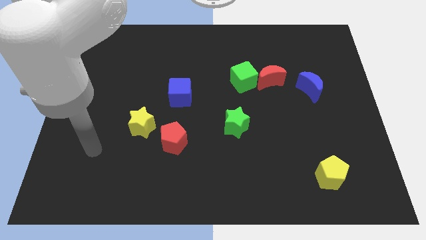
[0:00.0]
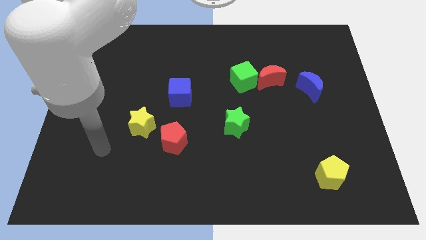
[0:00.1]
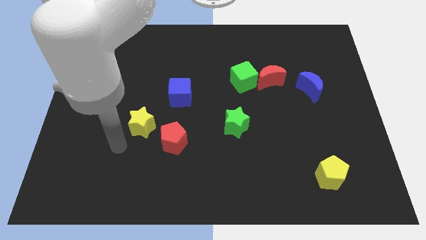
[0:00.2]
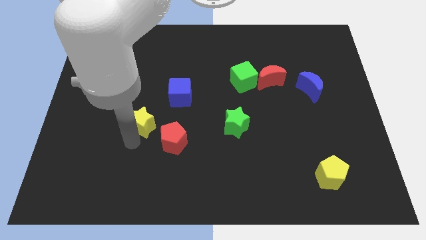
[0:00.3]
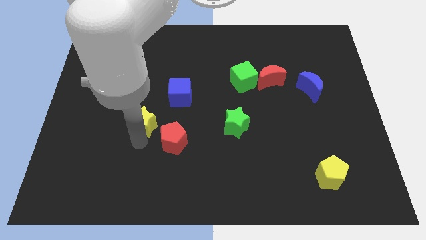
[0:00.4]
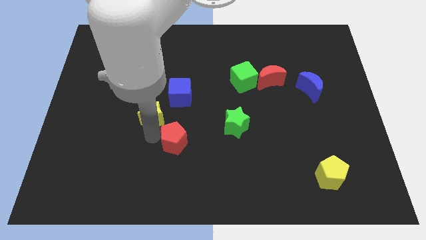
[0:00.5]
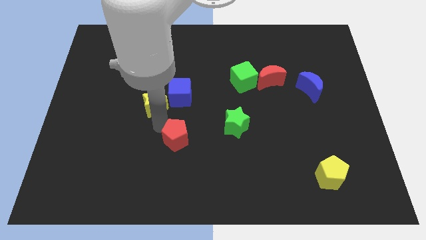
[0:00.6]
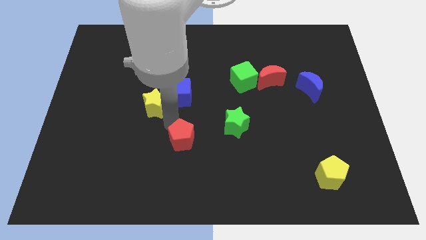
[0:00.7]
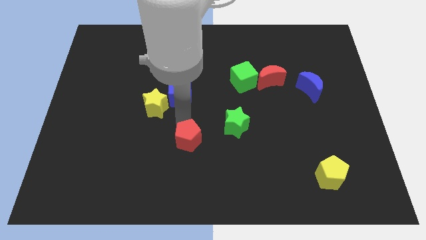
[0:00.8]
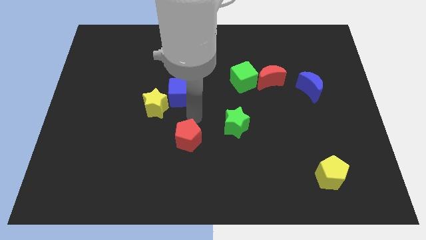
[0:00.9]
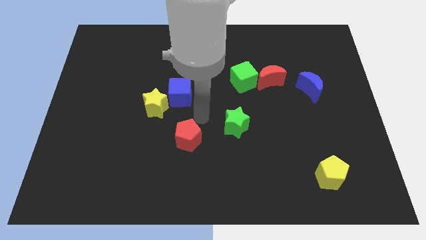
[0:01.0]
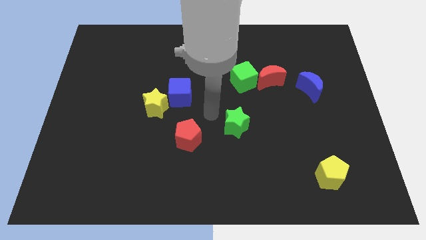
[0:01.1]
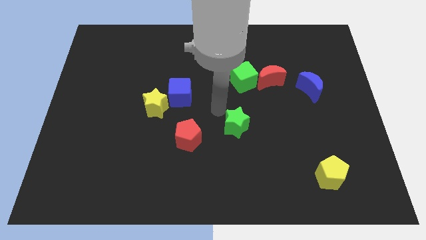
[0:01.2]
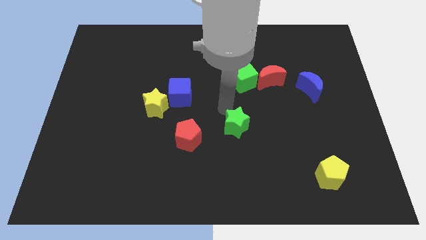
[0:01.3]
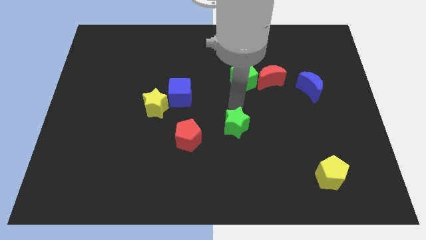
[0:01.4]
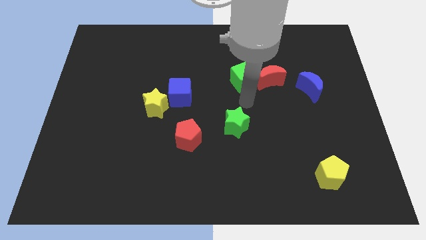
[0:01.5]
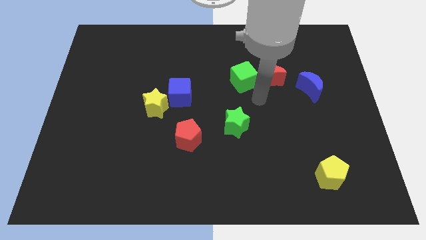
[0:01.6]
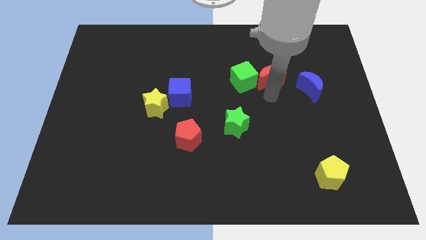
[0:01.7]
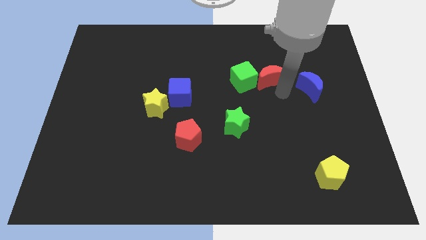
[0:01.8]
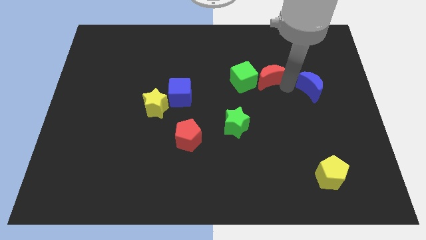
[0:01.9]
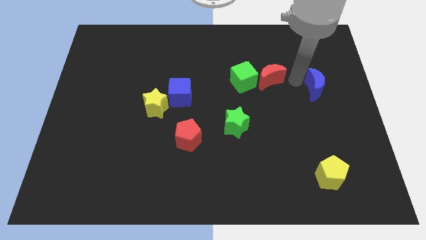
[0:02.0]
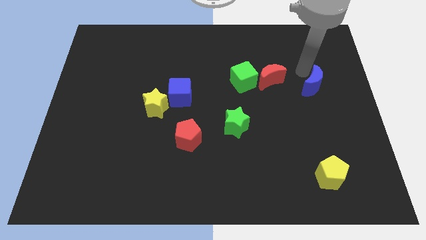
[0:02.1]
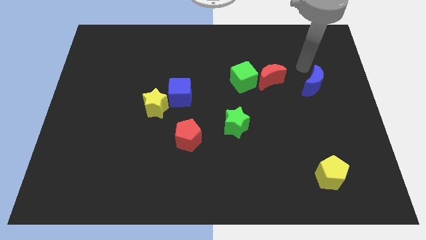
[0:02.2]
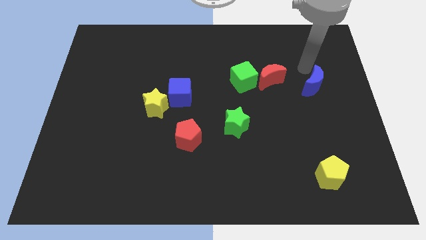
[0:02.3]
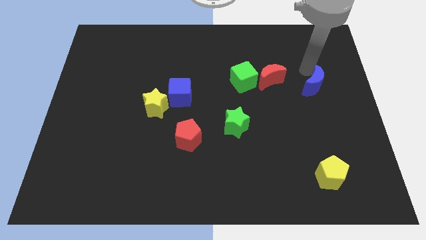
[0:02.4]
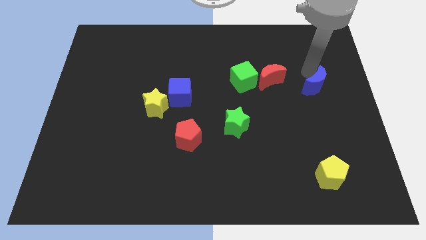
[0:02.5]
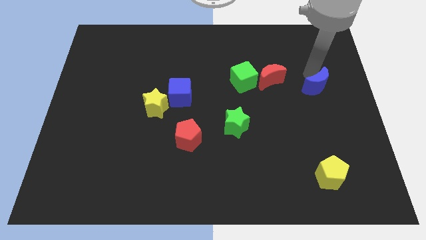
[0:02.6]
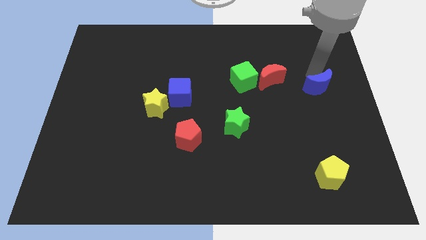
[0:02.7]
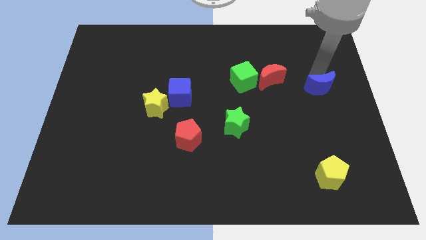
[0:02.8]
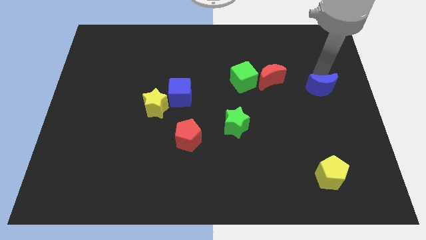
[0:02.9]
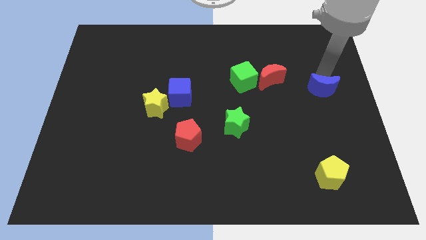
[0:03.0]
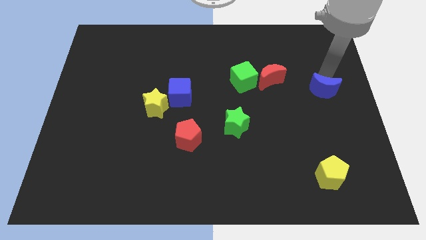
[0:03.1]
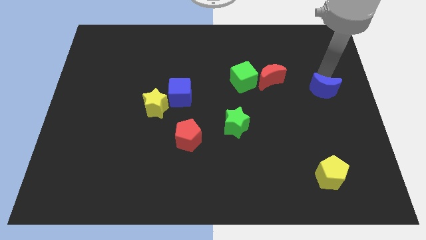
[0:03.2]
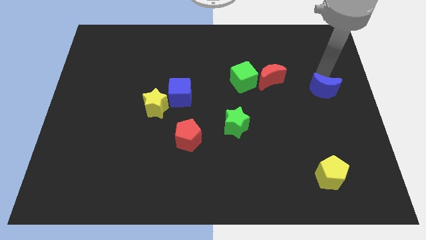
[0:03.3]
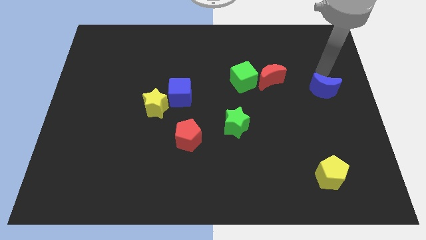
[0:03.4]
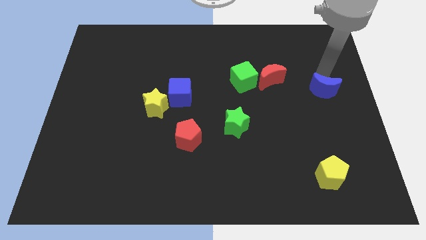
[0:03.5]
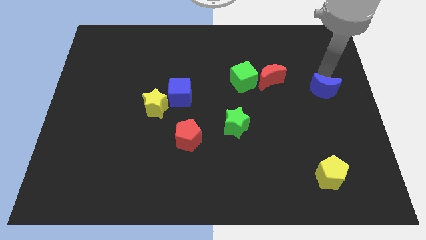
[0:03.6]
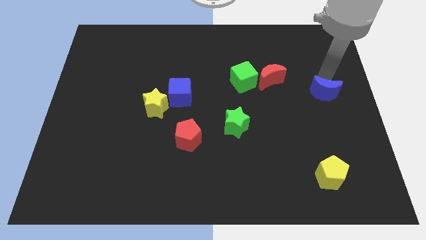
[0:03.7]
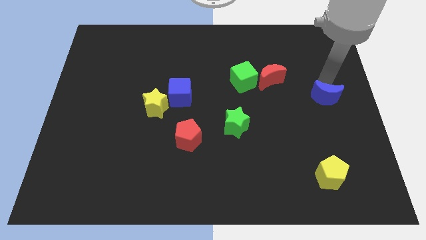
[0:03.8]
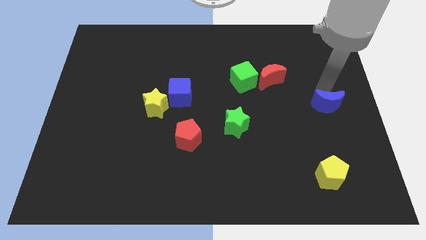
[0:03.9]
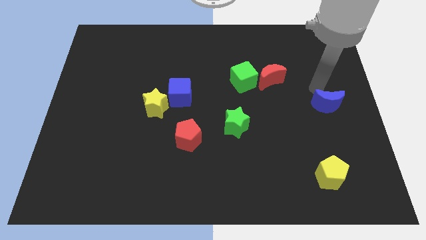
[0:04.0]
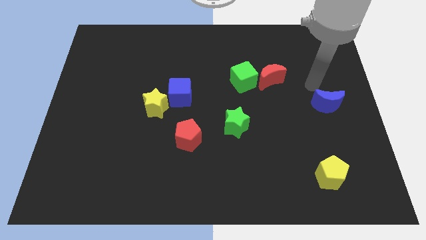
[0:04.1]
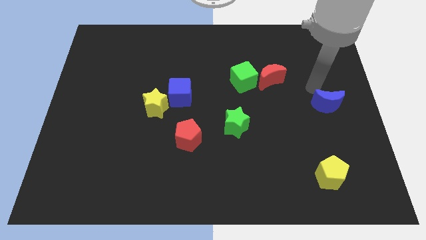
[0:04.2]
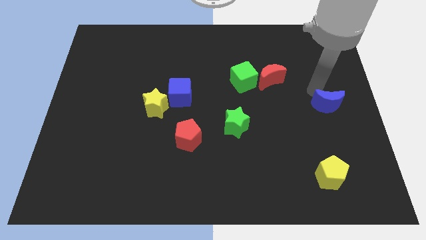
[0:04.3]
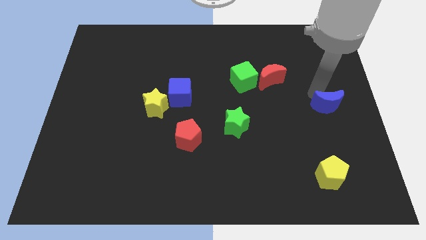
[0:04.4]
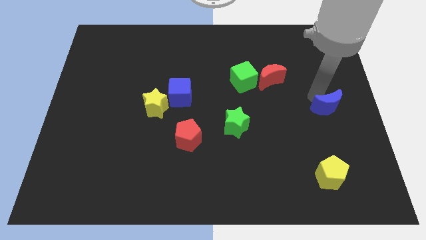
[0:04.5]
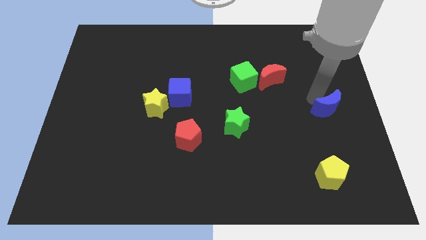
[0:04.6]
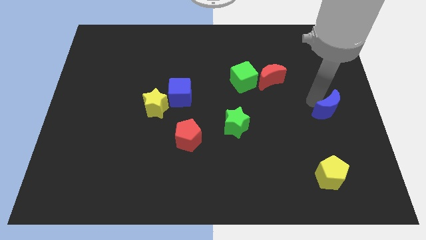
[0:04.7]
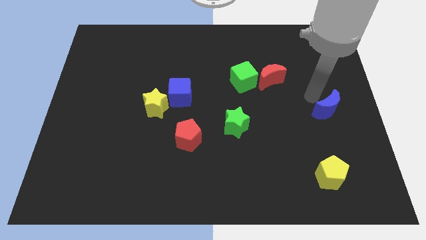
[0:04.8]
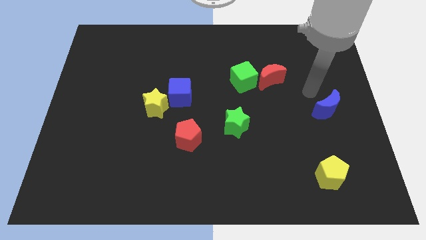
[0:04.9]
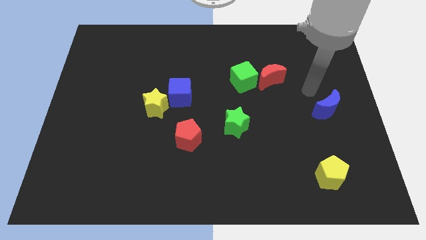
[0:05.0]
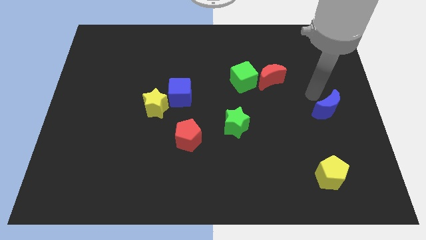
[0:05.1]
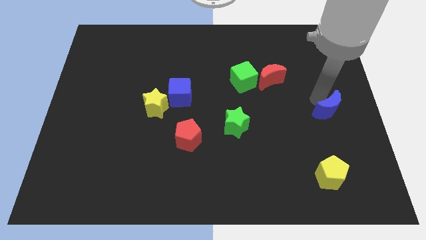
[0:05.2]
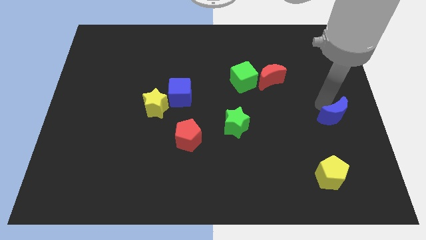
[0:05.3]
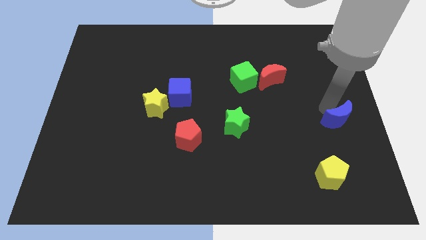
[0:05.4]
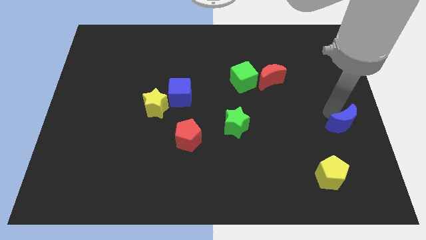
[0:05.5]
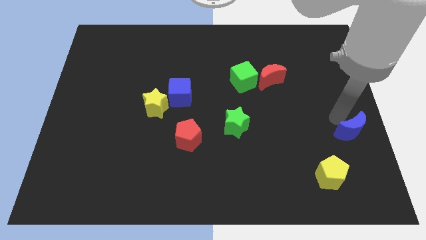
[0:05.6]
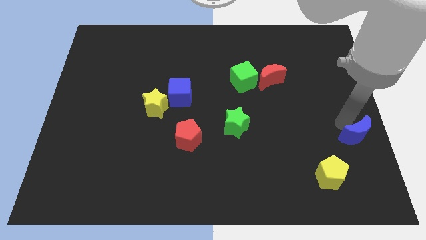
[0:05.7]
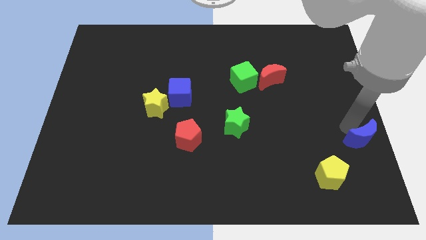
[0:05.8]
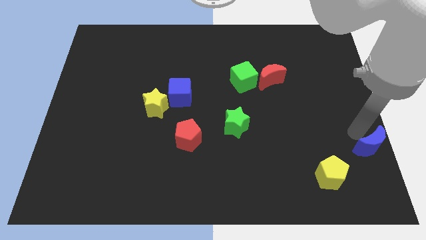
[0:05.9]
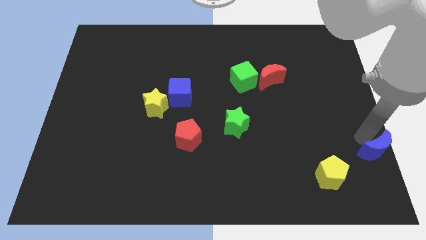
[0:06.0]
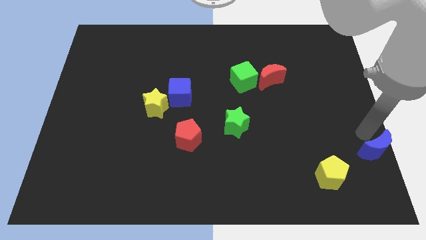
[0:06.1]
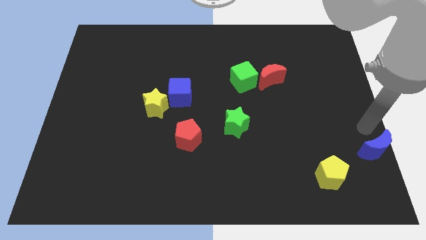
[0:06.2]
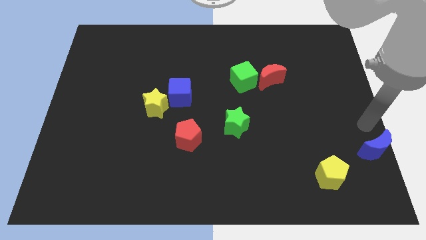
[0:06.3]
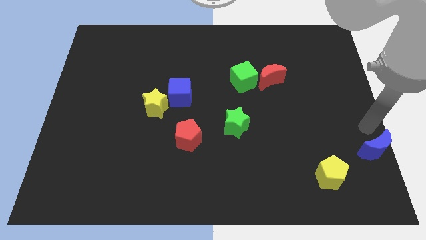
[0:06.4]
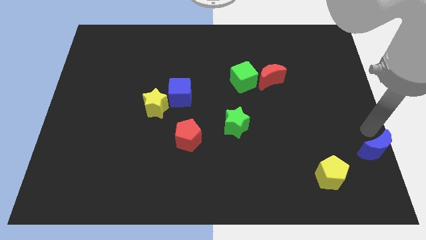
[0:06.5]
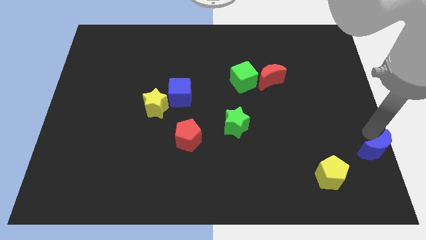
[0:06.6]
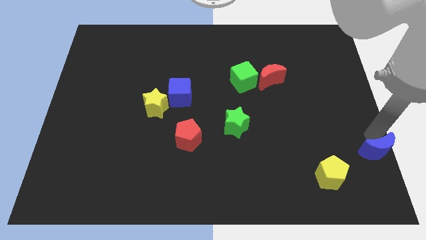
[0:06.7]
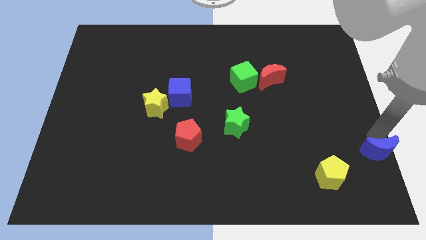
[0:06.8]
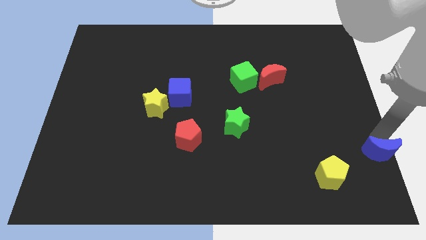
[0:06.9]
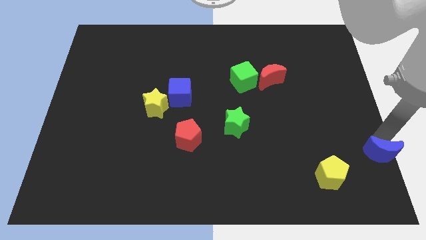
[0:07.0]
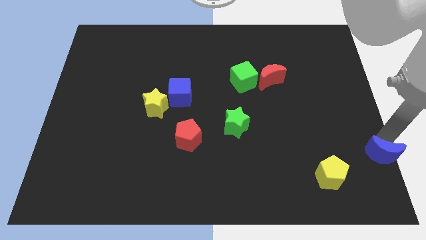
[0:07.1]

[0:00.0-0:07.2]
slide the blue moon to the bottom right of the board
